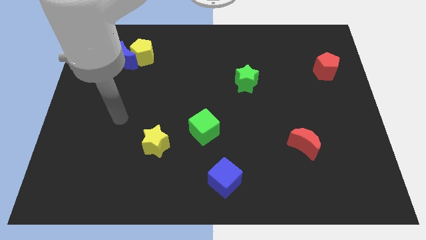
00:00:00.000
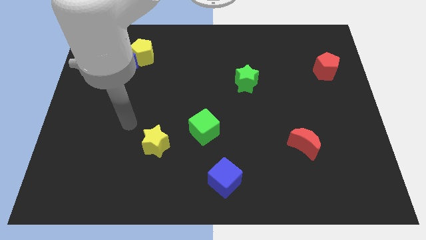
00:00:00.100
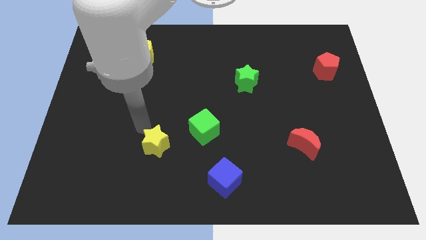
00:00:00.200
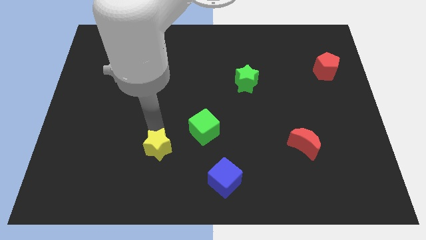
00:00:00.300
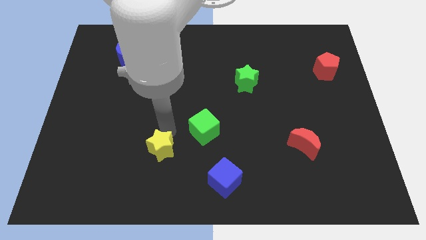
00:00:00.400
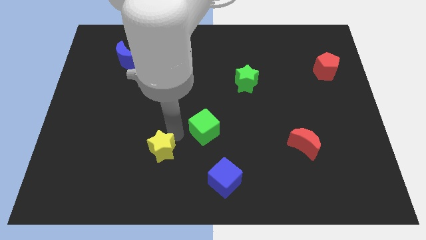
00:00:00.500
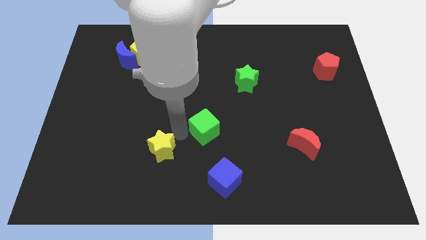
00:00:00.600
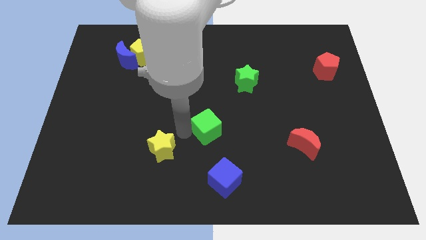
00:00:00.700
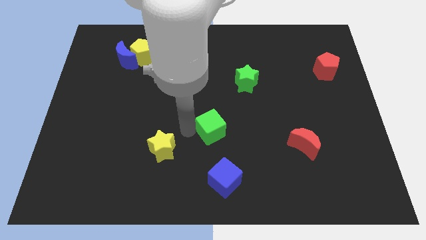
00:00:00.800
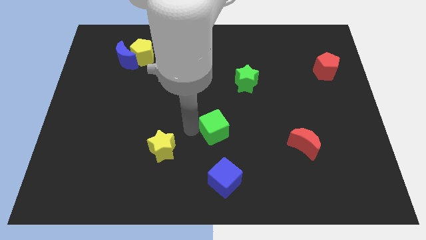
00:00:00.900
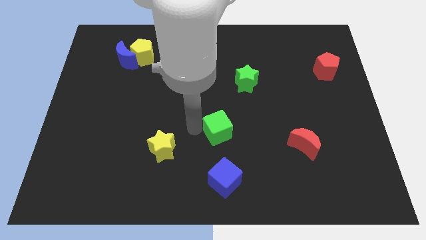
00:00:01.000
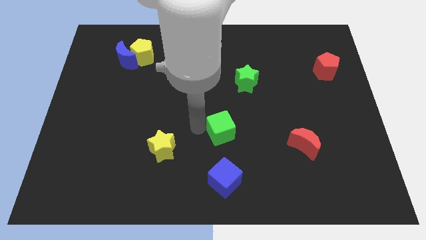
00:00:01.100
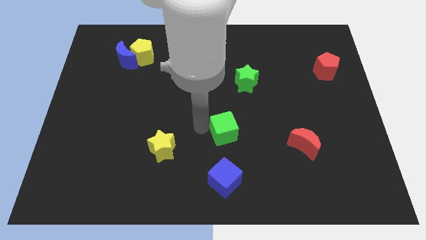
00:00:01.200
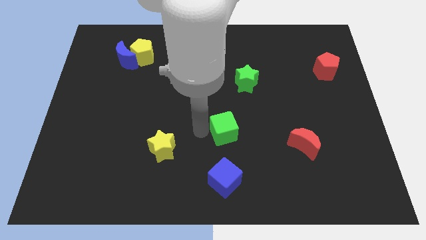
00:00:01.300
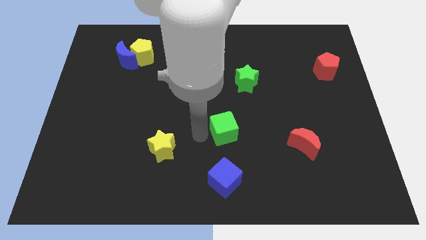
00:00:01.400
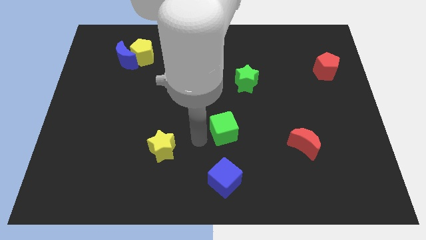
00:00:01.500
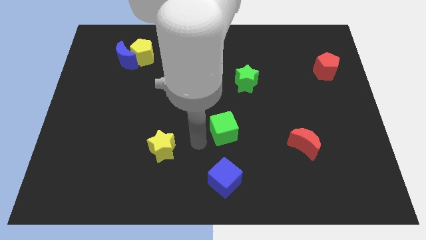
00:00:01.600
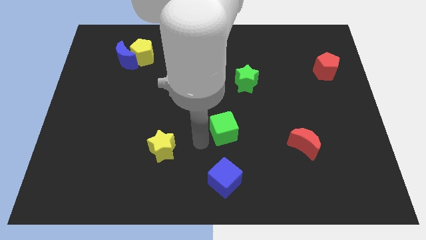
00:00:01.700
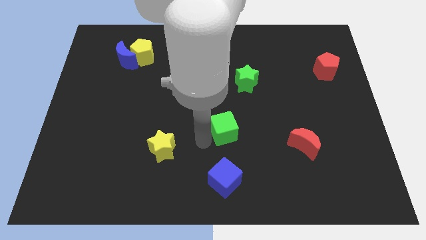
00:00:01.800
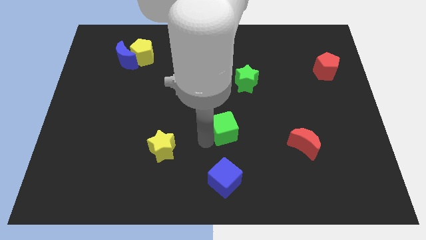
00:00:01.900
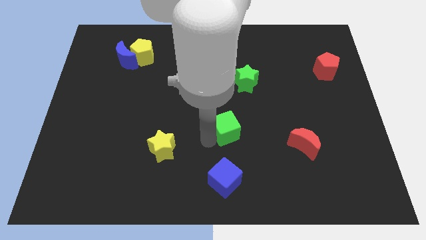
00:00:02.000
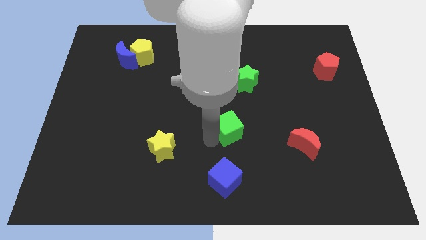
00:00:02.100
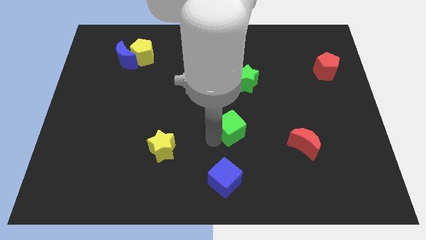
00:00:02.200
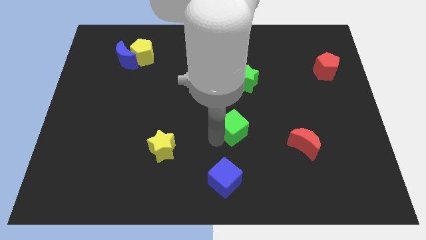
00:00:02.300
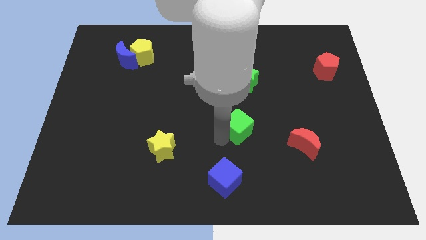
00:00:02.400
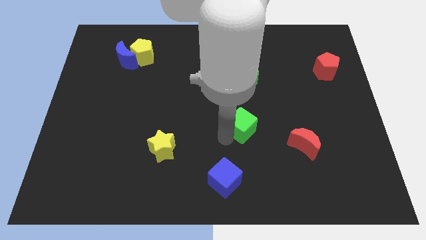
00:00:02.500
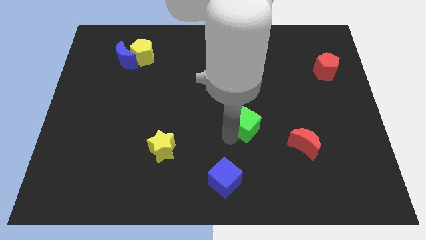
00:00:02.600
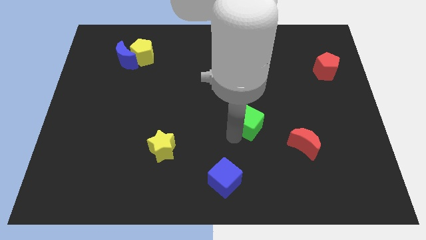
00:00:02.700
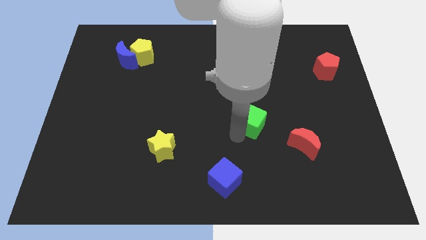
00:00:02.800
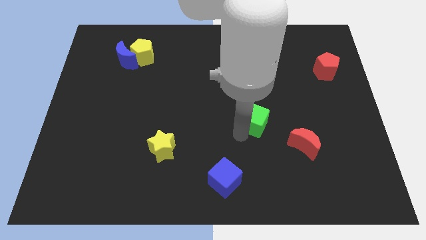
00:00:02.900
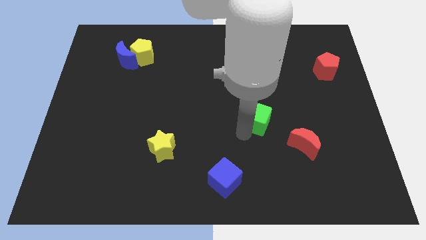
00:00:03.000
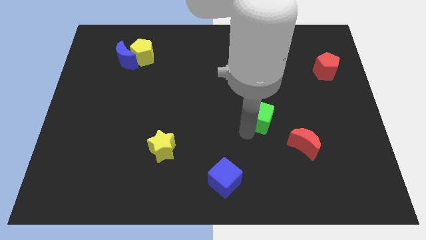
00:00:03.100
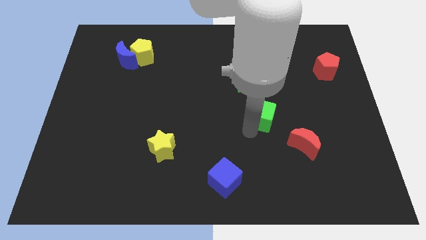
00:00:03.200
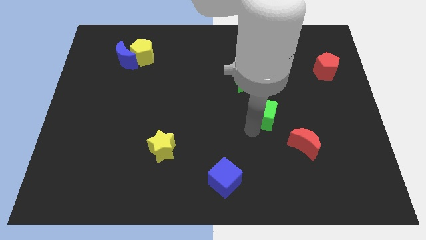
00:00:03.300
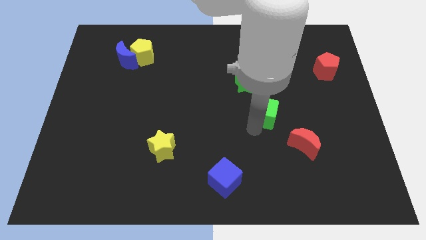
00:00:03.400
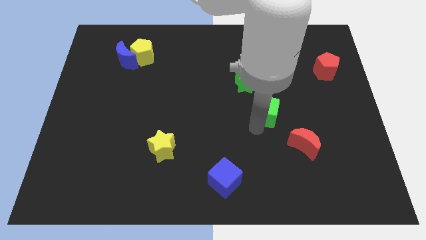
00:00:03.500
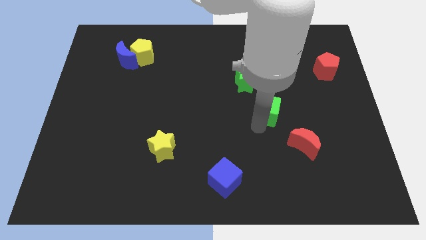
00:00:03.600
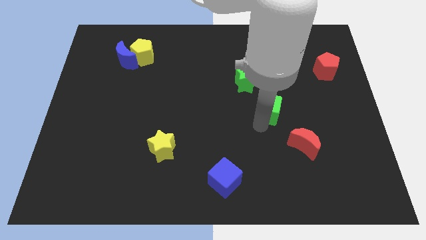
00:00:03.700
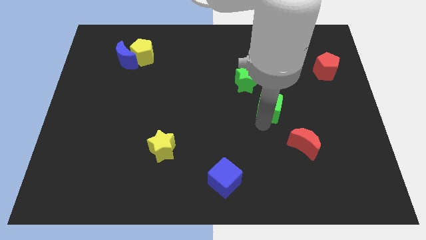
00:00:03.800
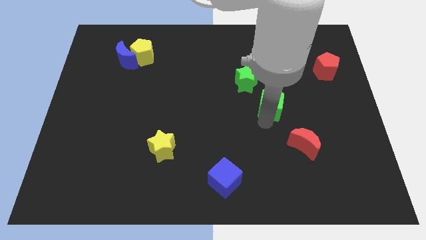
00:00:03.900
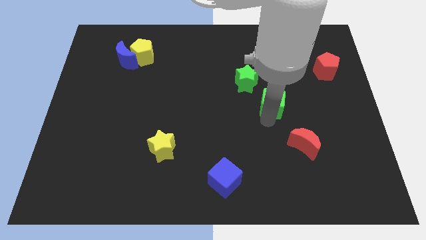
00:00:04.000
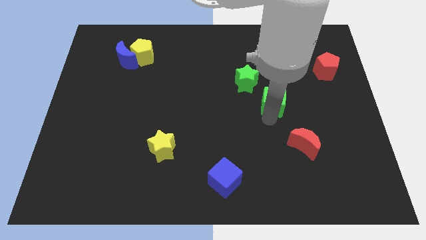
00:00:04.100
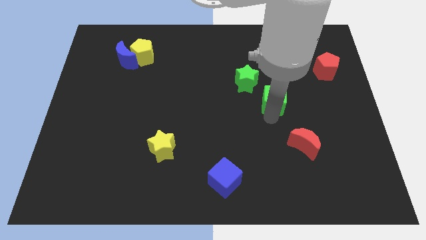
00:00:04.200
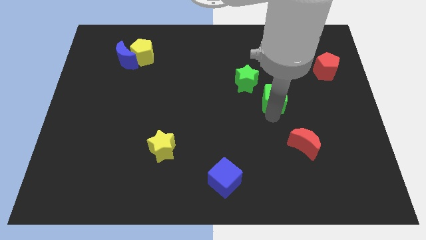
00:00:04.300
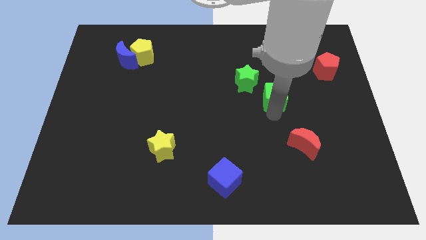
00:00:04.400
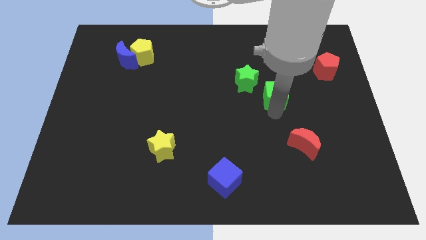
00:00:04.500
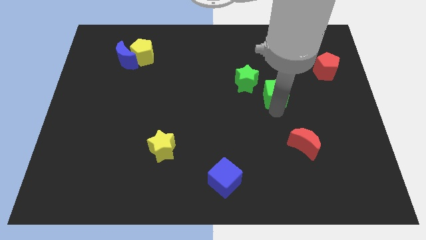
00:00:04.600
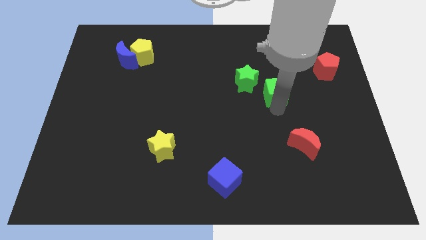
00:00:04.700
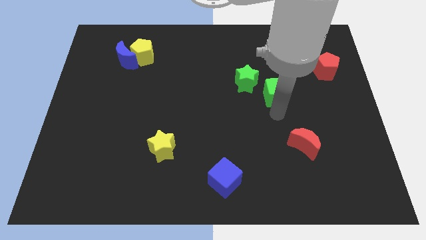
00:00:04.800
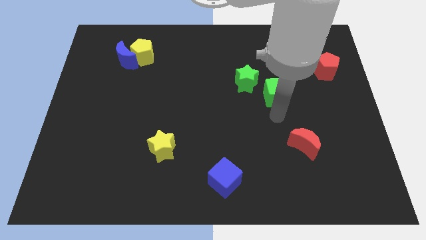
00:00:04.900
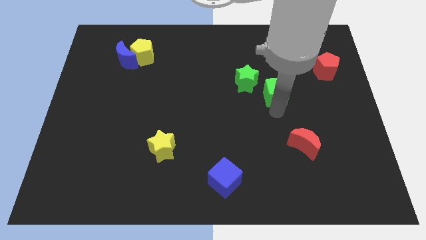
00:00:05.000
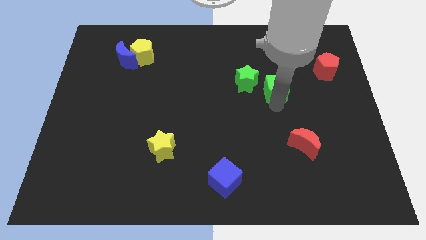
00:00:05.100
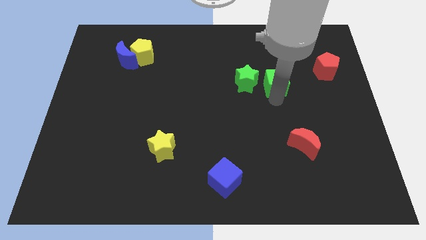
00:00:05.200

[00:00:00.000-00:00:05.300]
move the green cube upwards and then to the right

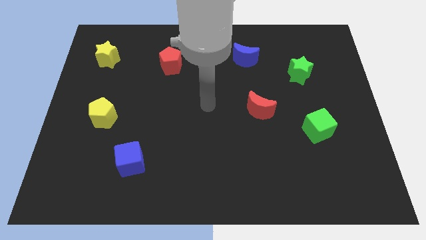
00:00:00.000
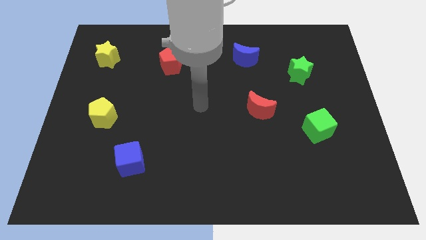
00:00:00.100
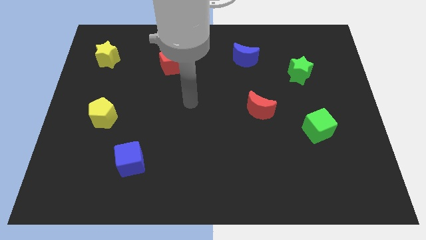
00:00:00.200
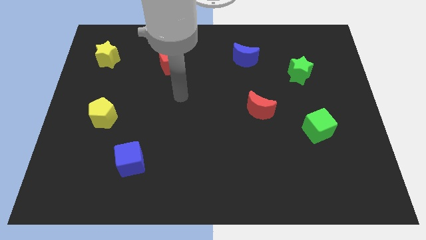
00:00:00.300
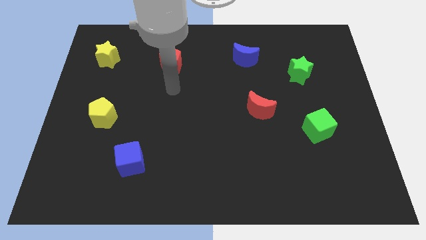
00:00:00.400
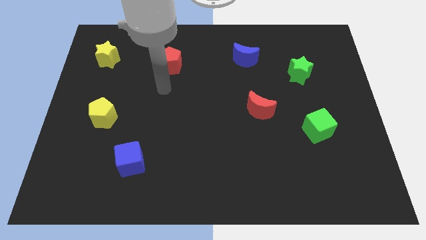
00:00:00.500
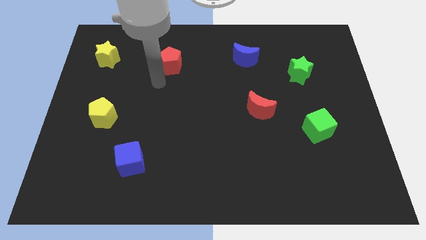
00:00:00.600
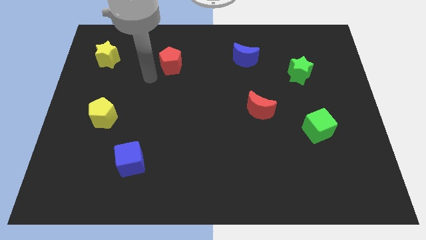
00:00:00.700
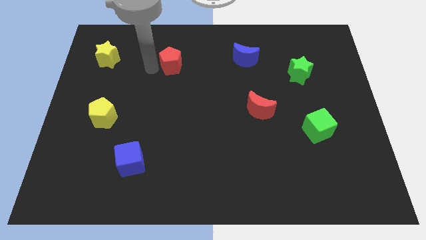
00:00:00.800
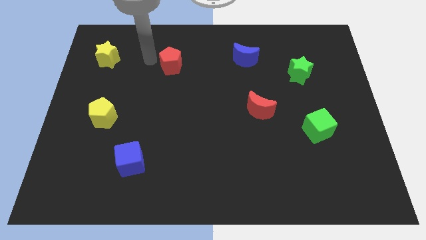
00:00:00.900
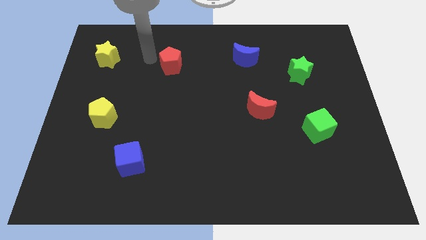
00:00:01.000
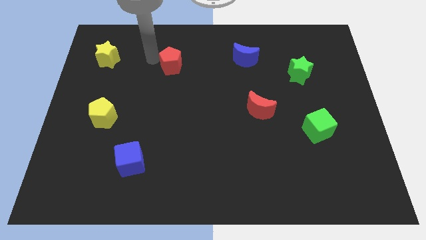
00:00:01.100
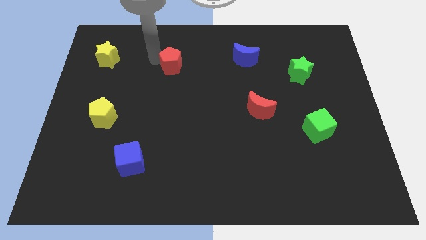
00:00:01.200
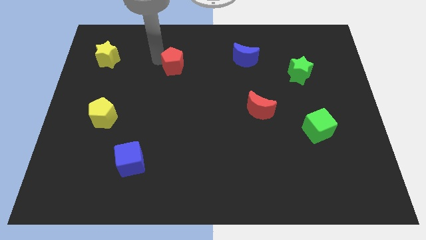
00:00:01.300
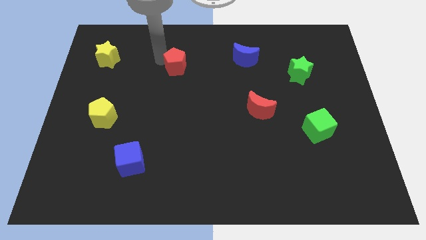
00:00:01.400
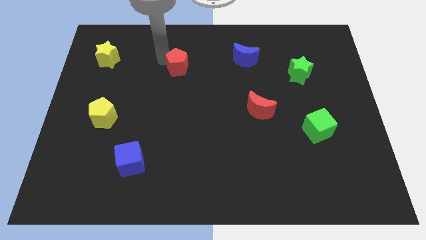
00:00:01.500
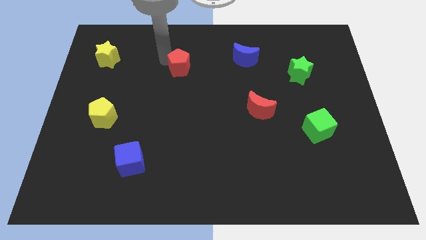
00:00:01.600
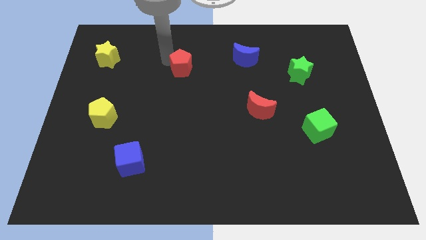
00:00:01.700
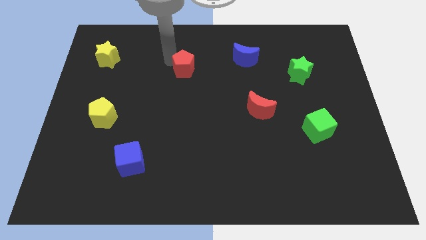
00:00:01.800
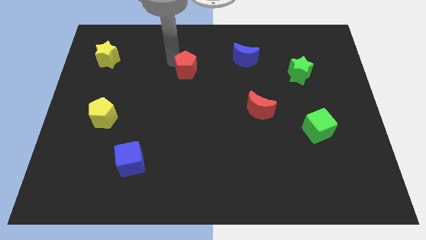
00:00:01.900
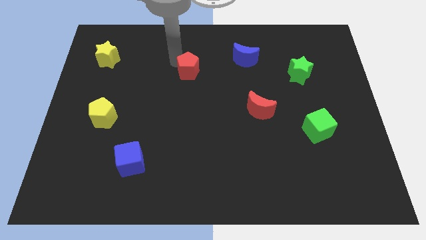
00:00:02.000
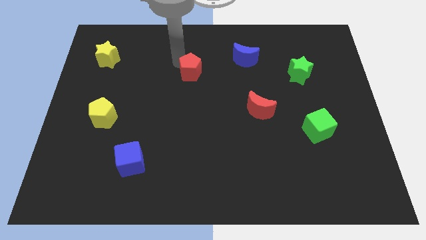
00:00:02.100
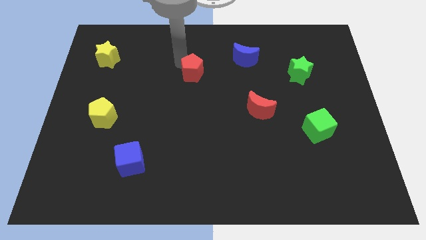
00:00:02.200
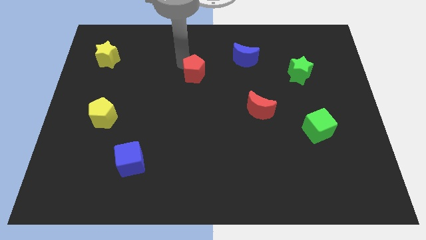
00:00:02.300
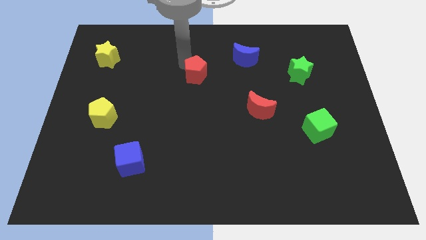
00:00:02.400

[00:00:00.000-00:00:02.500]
move the red pentagon down and right diagonally a bit

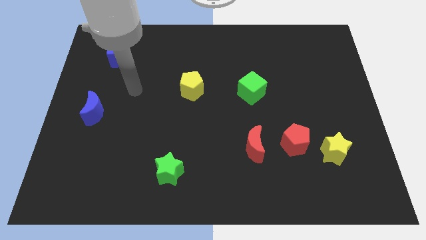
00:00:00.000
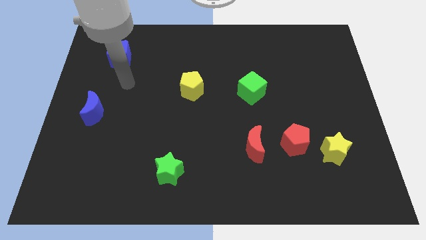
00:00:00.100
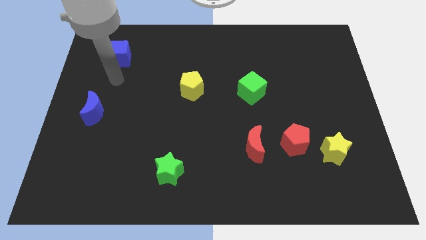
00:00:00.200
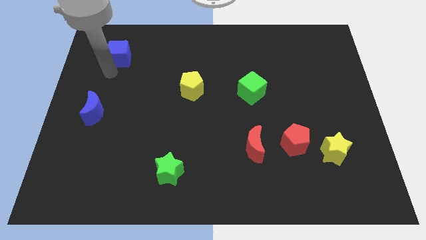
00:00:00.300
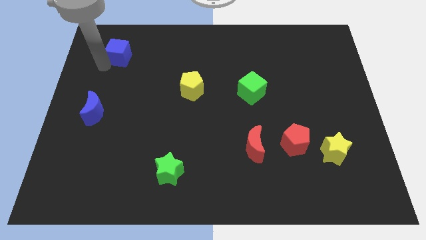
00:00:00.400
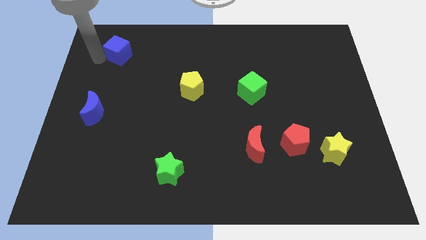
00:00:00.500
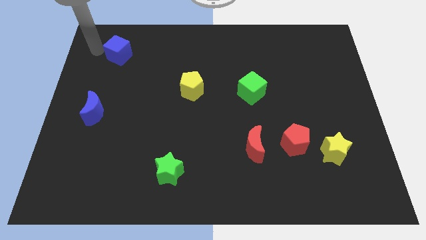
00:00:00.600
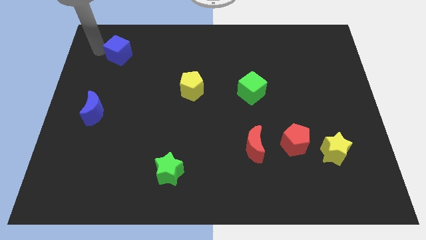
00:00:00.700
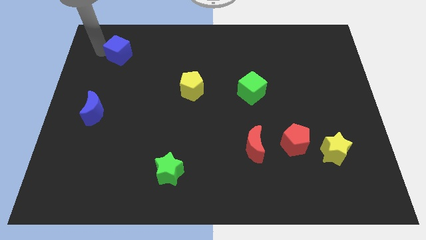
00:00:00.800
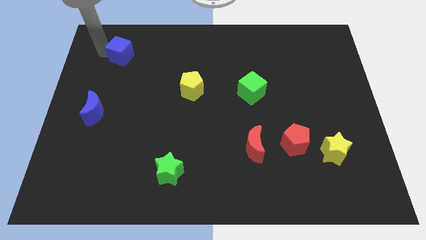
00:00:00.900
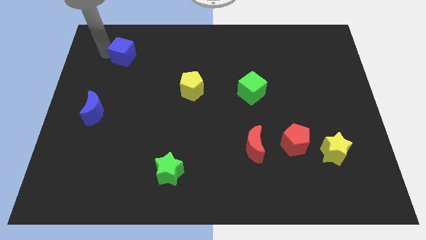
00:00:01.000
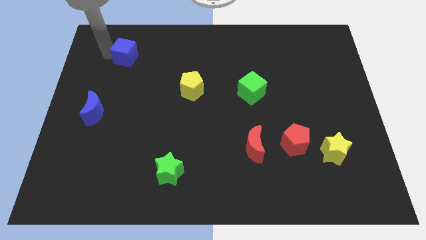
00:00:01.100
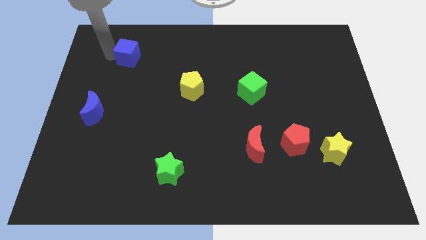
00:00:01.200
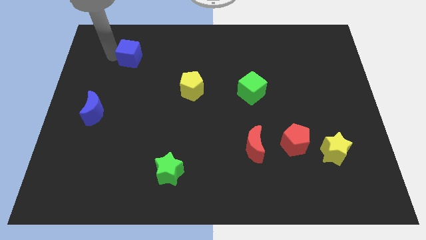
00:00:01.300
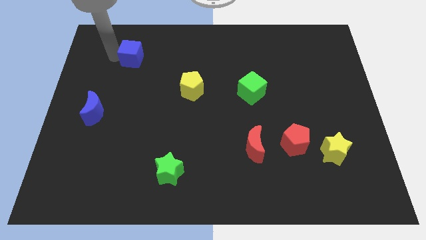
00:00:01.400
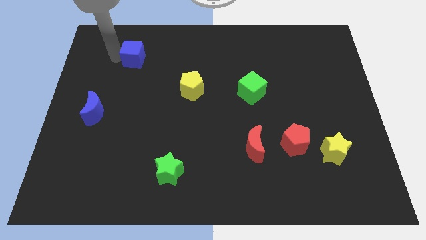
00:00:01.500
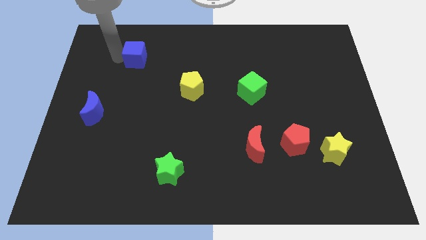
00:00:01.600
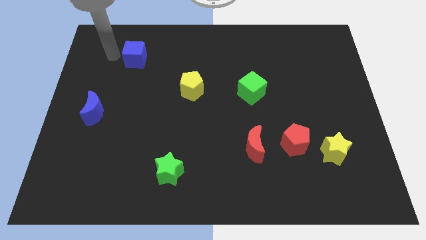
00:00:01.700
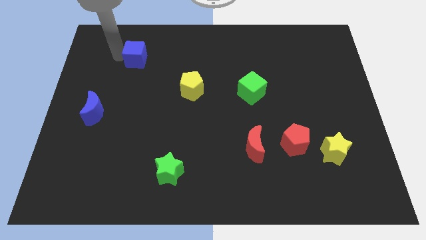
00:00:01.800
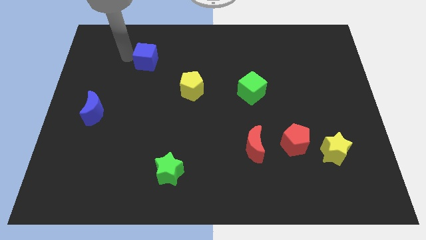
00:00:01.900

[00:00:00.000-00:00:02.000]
slide the blue cube to the right somewhat
